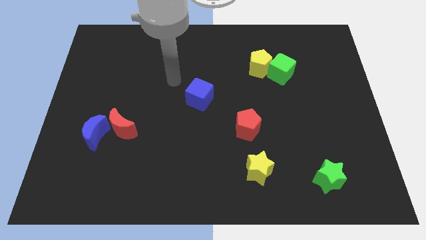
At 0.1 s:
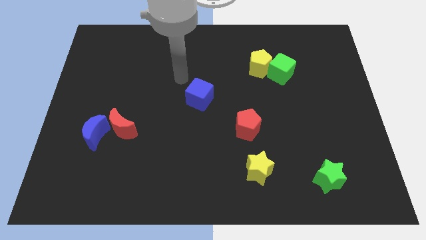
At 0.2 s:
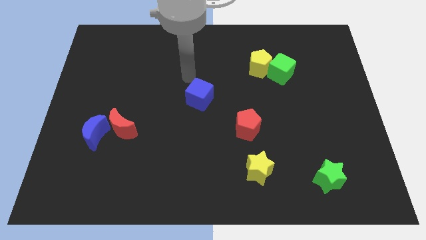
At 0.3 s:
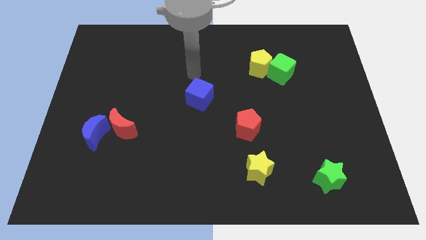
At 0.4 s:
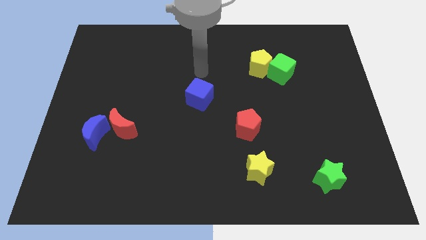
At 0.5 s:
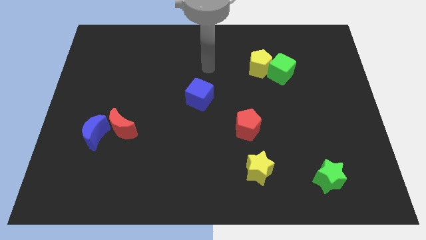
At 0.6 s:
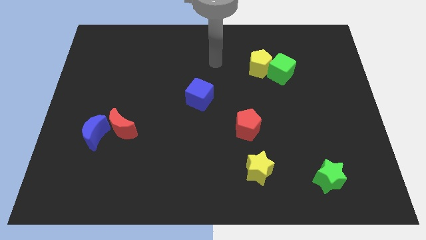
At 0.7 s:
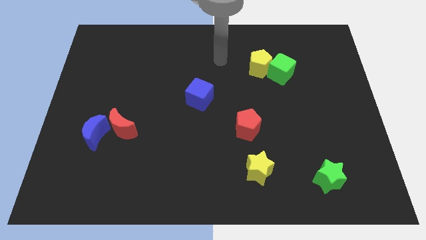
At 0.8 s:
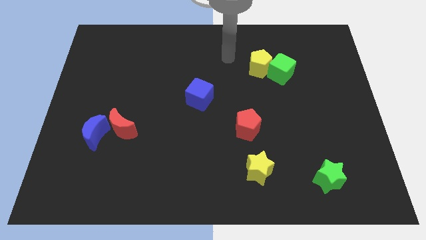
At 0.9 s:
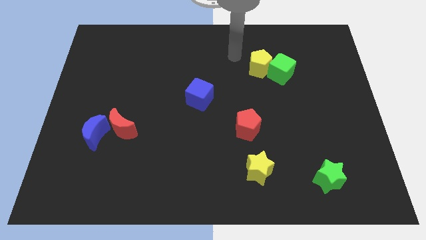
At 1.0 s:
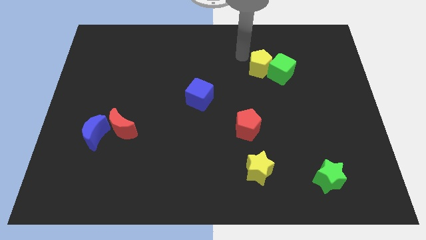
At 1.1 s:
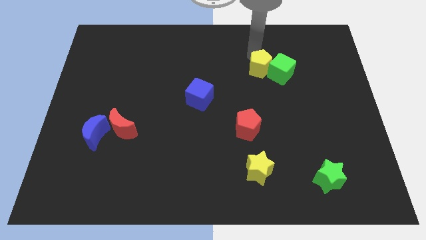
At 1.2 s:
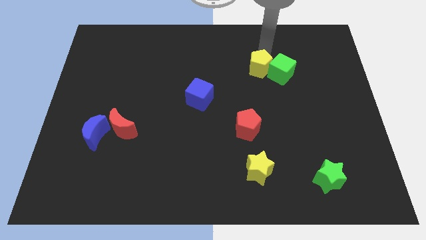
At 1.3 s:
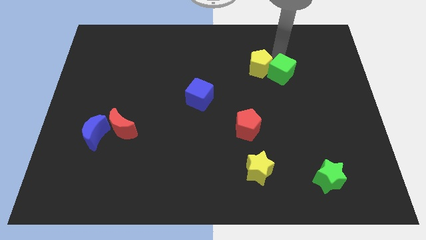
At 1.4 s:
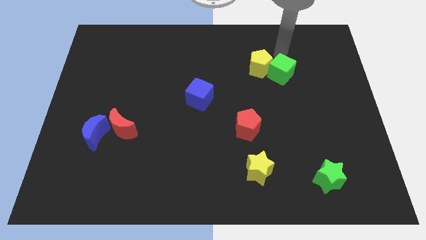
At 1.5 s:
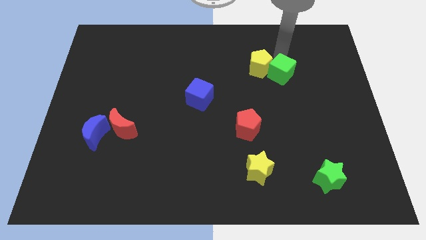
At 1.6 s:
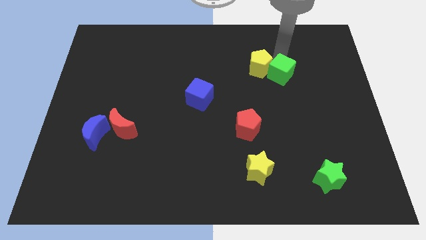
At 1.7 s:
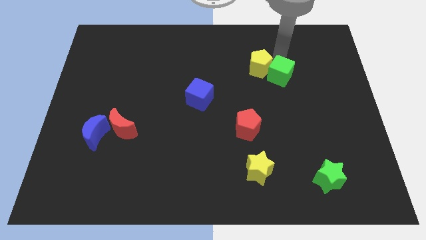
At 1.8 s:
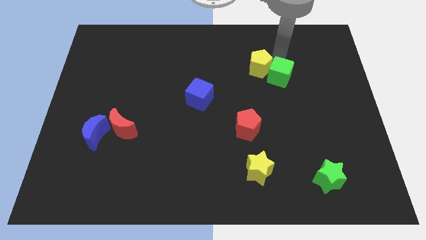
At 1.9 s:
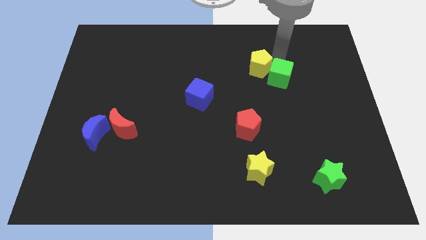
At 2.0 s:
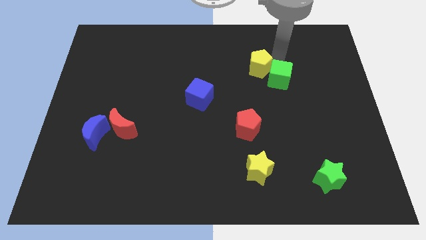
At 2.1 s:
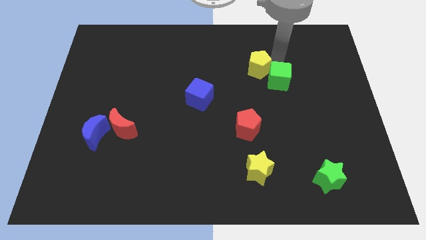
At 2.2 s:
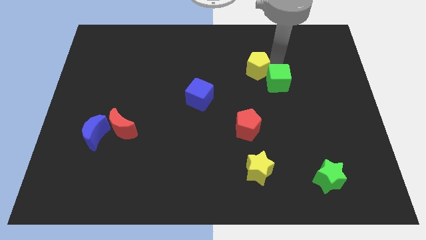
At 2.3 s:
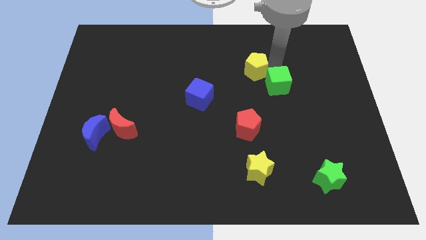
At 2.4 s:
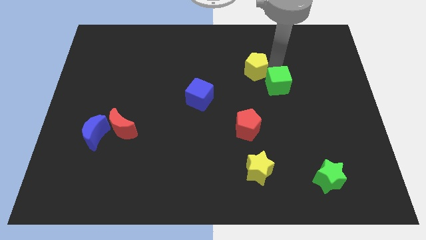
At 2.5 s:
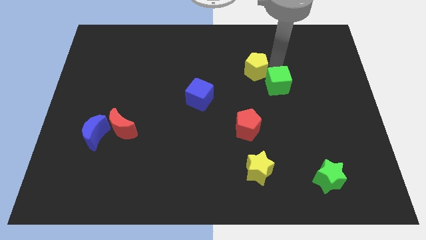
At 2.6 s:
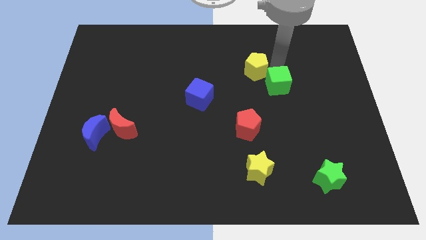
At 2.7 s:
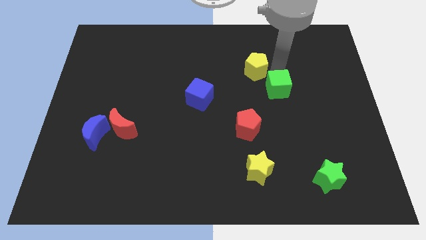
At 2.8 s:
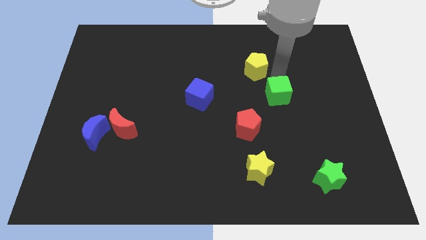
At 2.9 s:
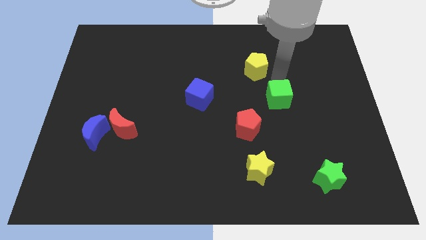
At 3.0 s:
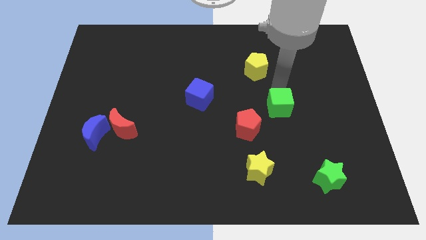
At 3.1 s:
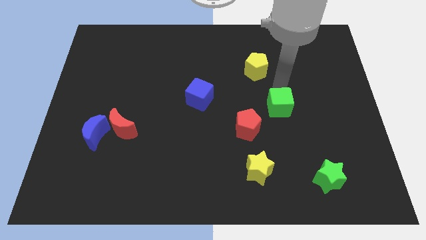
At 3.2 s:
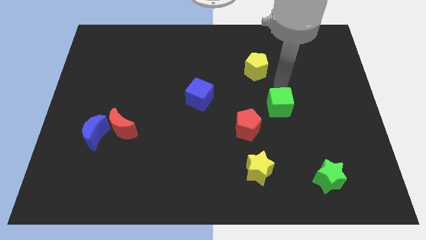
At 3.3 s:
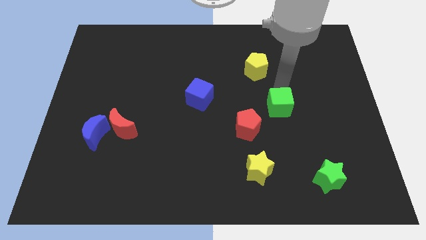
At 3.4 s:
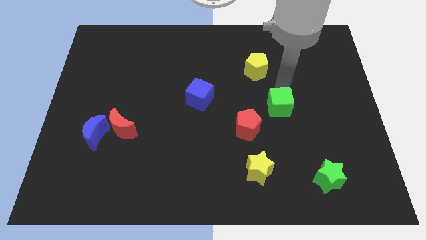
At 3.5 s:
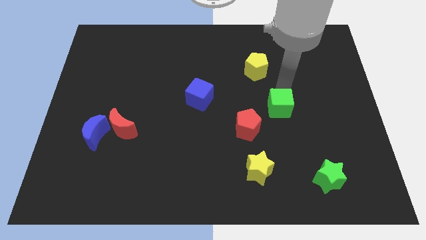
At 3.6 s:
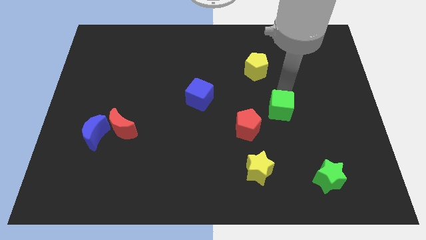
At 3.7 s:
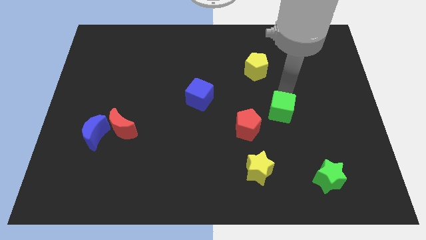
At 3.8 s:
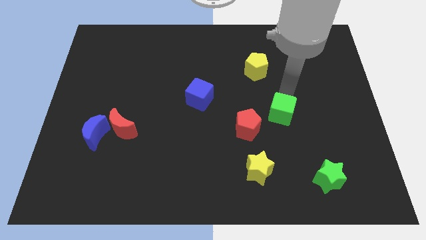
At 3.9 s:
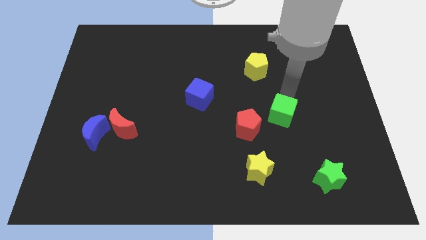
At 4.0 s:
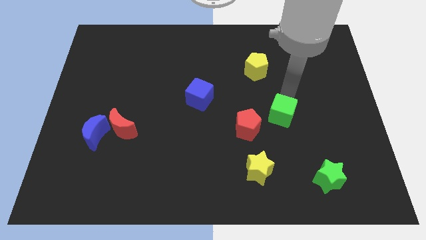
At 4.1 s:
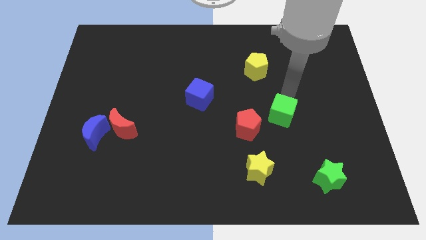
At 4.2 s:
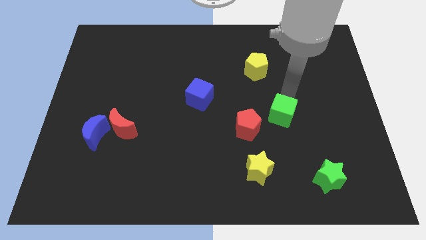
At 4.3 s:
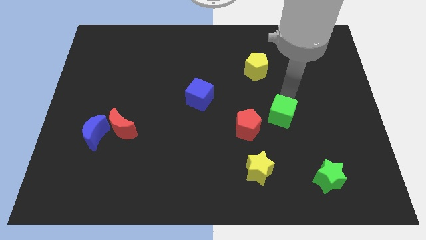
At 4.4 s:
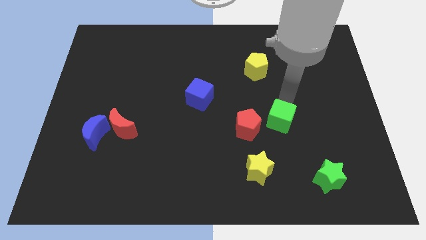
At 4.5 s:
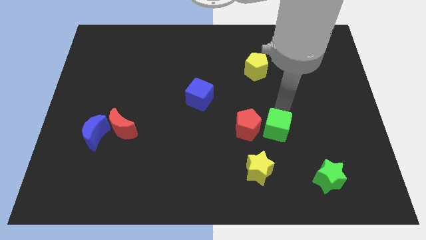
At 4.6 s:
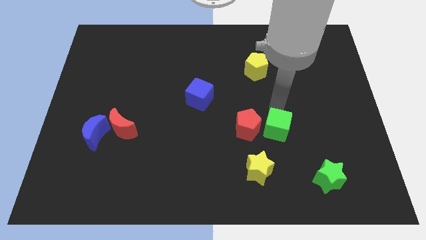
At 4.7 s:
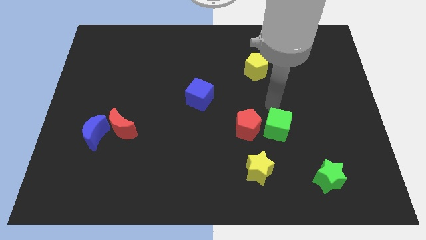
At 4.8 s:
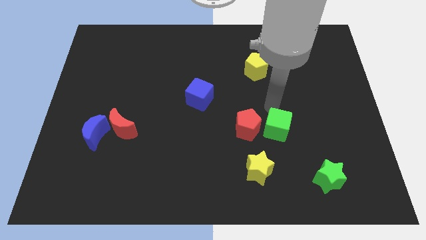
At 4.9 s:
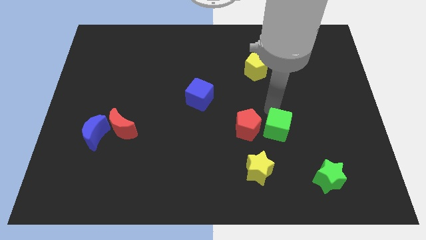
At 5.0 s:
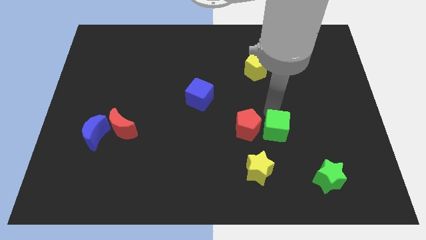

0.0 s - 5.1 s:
move the green cube to the top right side of the yellow star
